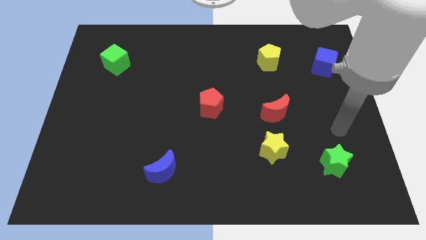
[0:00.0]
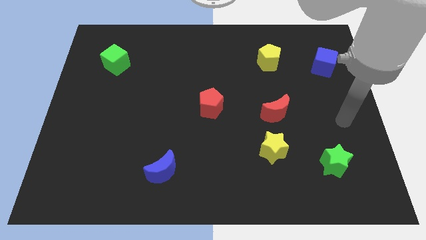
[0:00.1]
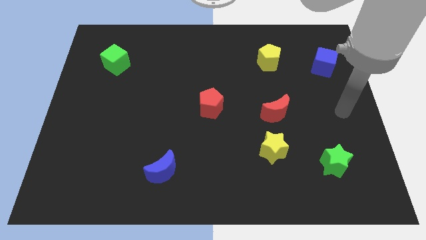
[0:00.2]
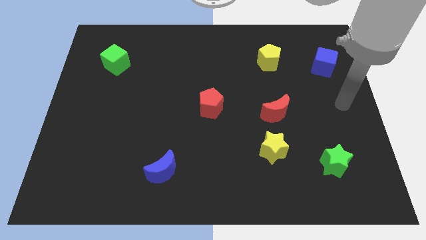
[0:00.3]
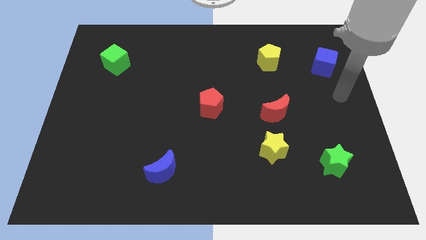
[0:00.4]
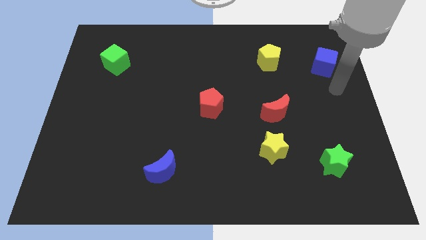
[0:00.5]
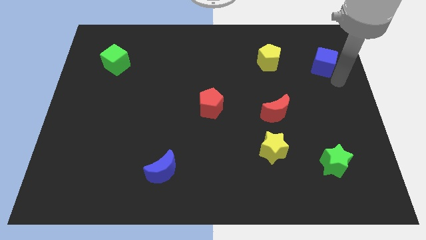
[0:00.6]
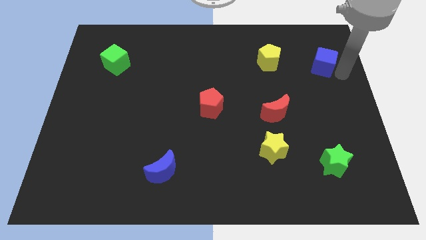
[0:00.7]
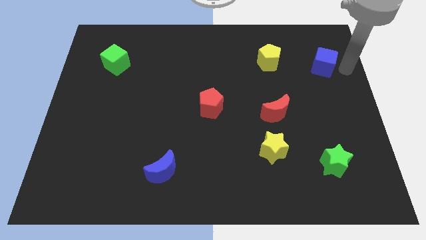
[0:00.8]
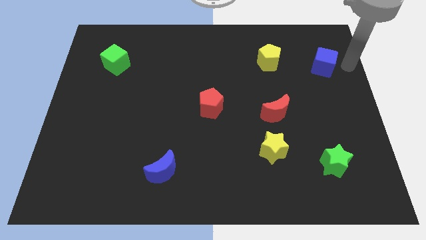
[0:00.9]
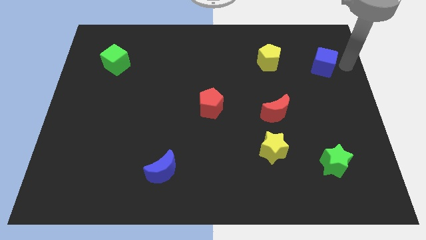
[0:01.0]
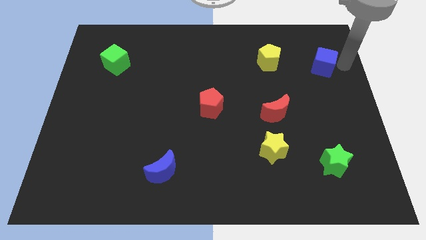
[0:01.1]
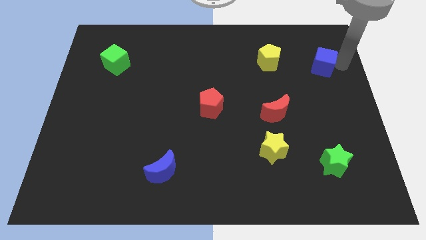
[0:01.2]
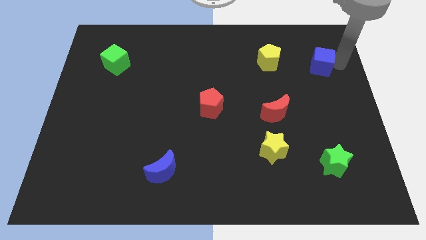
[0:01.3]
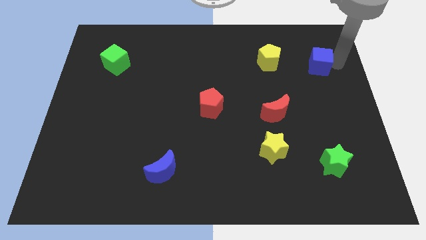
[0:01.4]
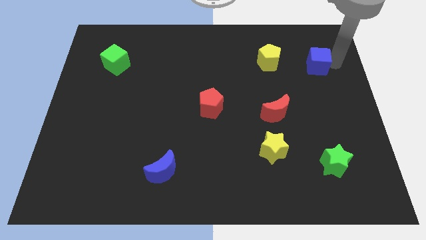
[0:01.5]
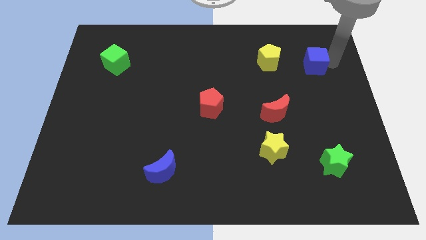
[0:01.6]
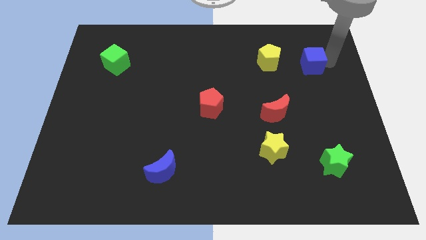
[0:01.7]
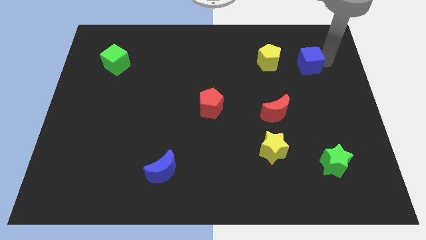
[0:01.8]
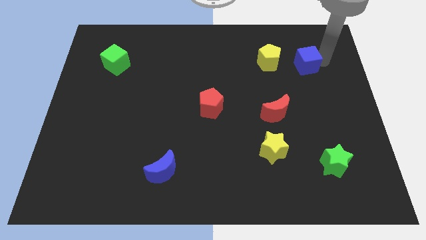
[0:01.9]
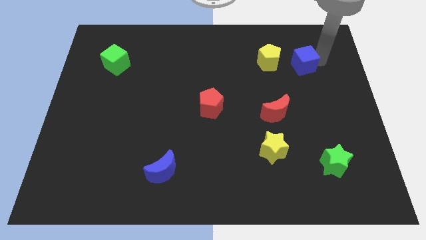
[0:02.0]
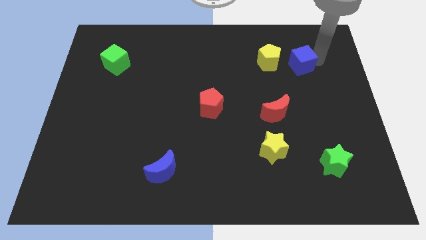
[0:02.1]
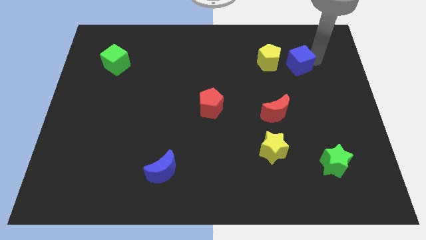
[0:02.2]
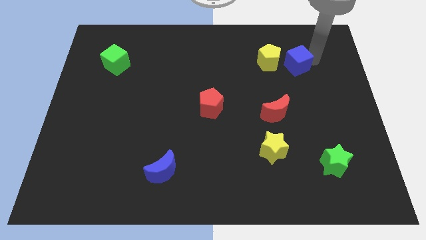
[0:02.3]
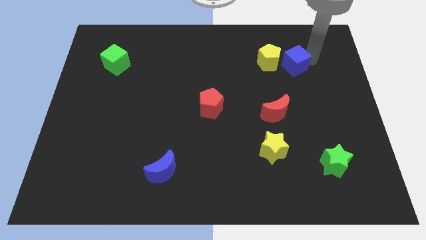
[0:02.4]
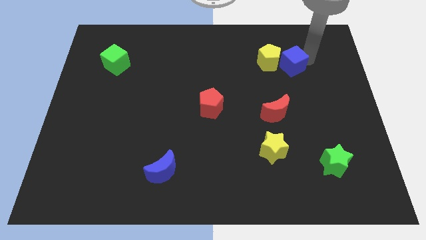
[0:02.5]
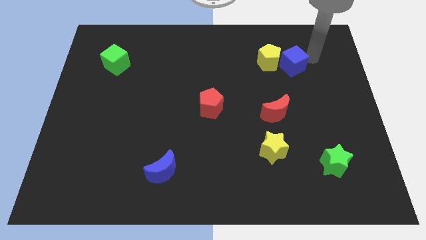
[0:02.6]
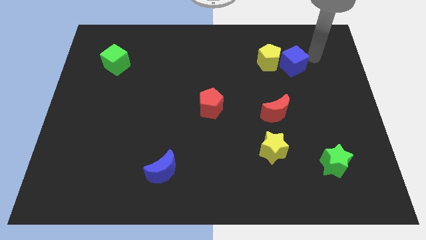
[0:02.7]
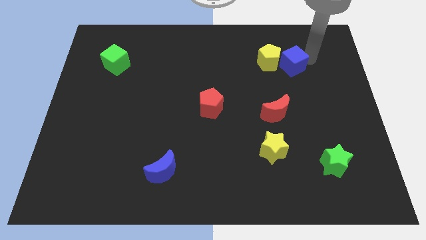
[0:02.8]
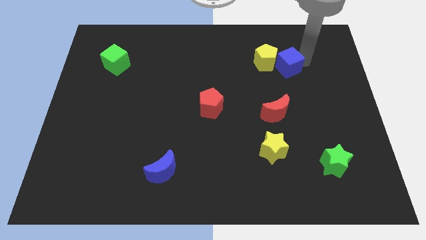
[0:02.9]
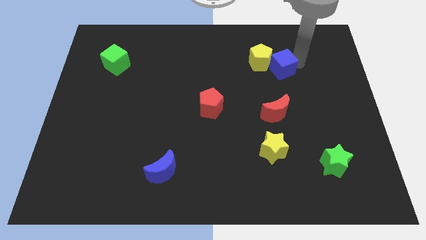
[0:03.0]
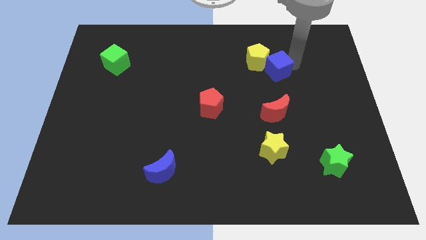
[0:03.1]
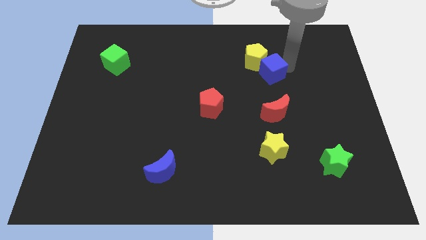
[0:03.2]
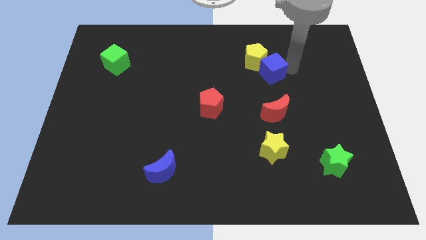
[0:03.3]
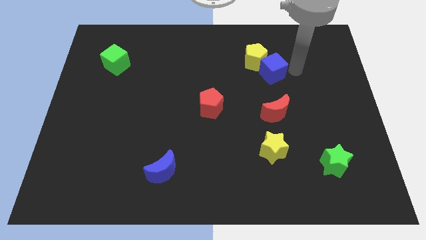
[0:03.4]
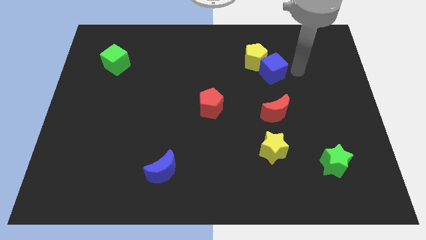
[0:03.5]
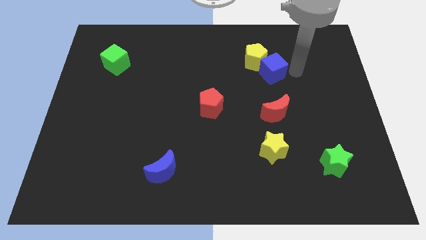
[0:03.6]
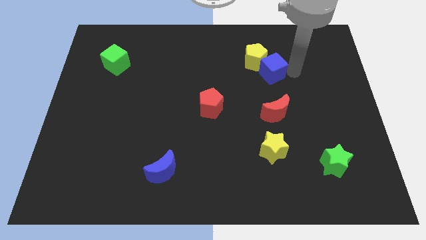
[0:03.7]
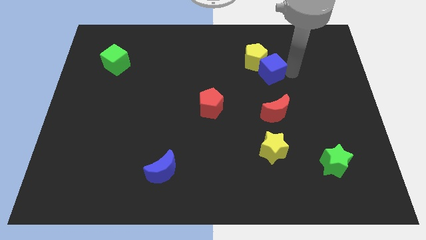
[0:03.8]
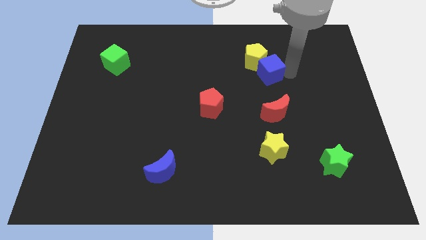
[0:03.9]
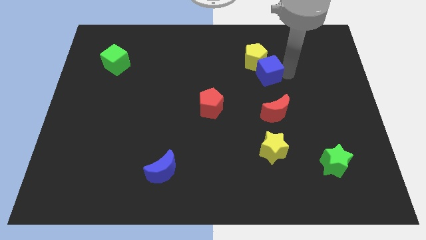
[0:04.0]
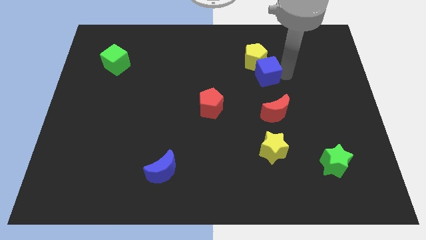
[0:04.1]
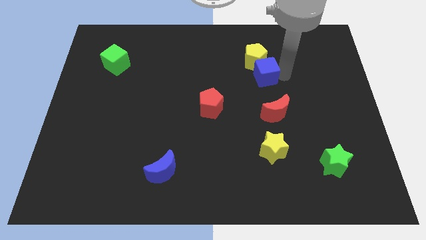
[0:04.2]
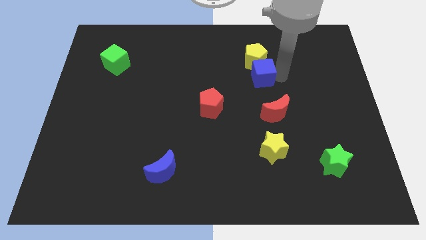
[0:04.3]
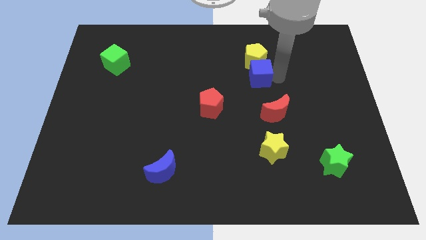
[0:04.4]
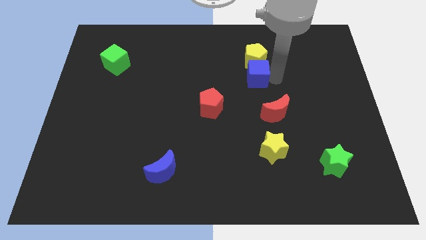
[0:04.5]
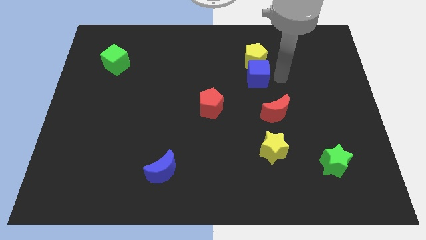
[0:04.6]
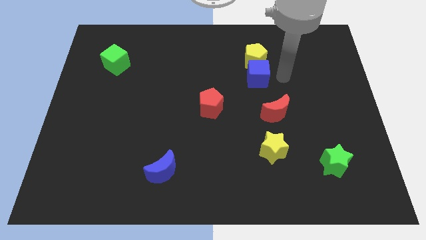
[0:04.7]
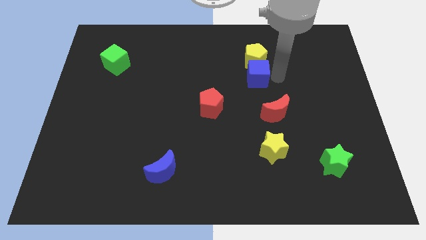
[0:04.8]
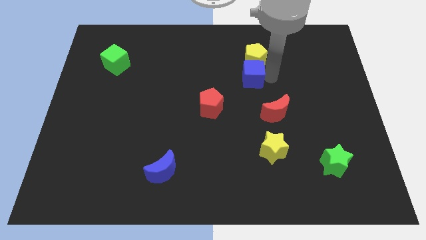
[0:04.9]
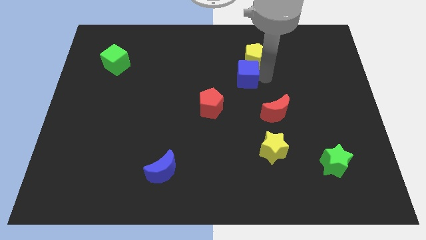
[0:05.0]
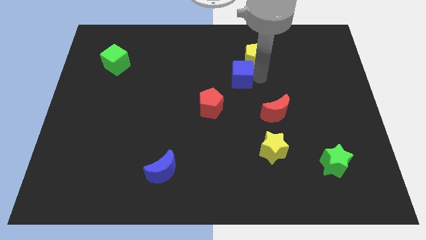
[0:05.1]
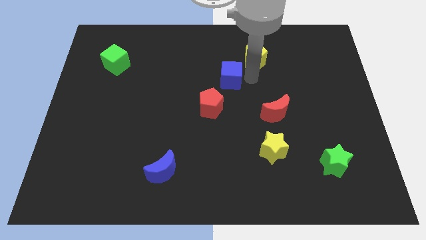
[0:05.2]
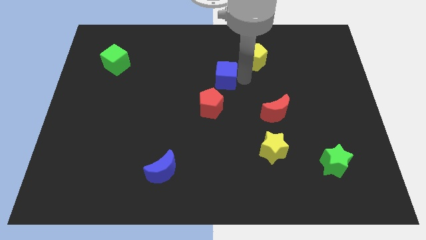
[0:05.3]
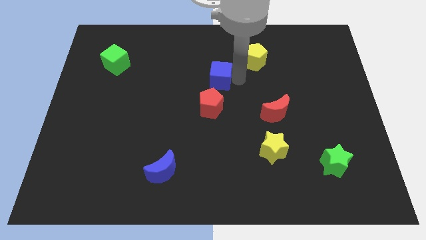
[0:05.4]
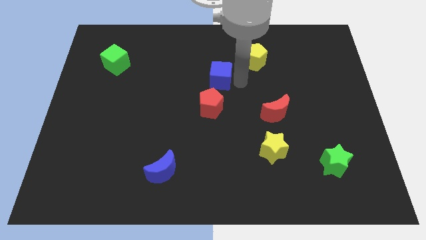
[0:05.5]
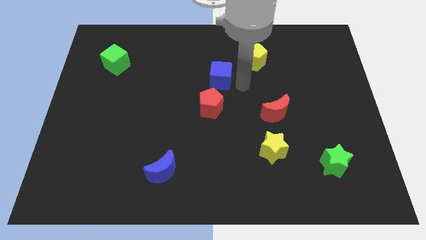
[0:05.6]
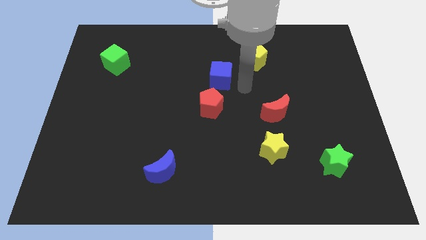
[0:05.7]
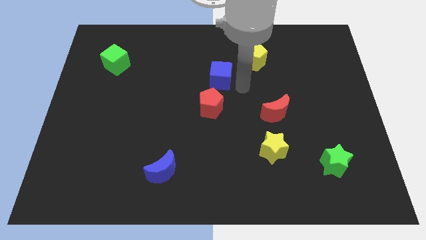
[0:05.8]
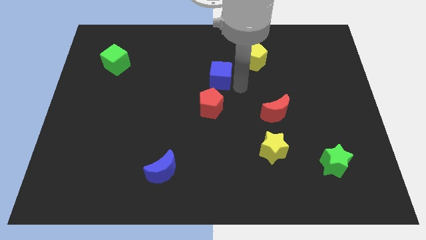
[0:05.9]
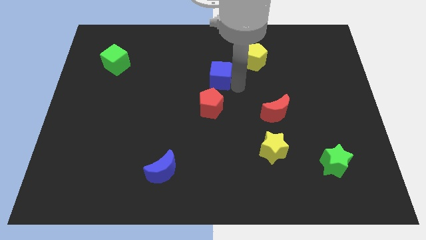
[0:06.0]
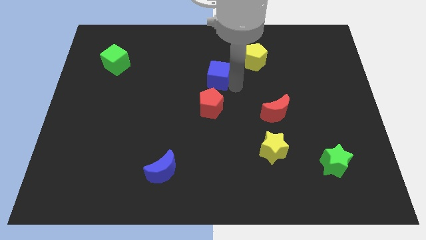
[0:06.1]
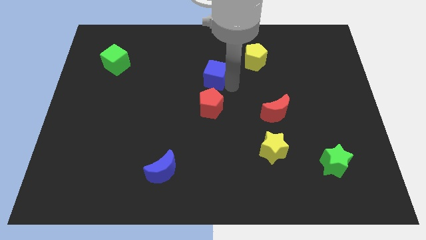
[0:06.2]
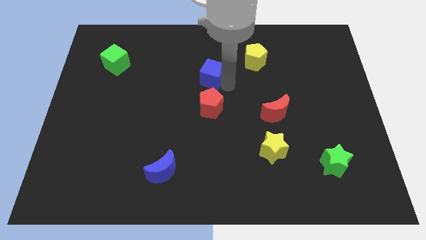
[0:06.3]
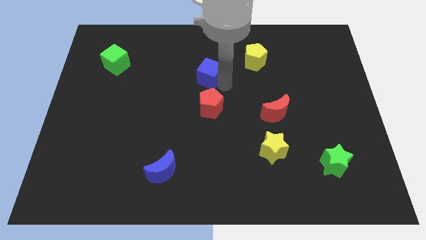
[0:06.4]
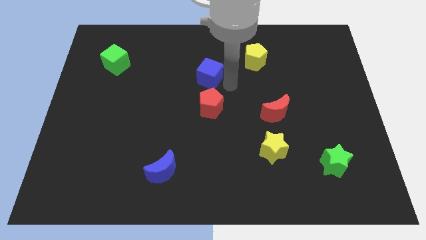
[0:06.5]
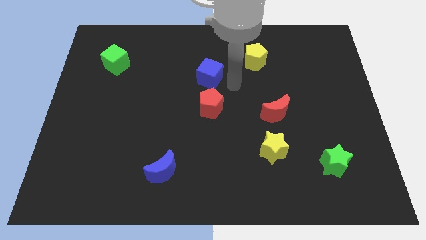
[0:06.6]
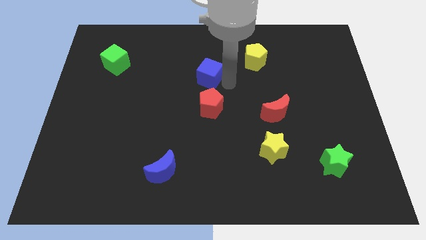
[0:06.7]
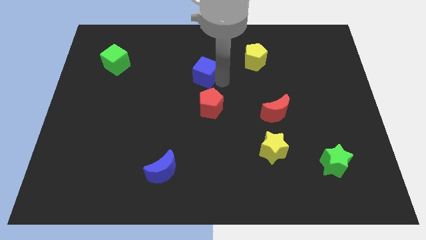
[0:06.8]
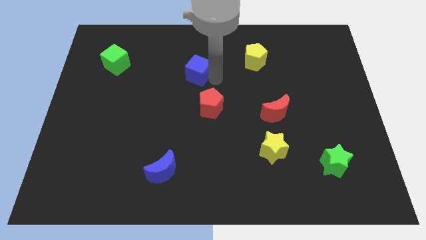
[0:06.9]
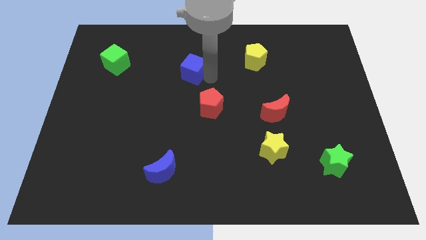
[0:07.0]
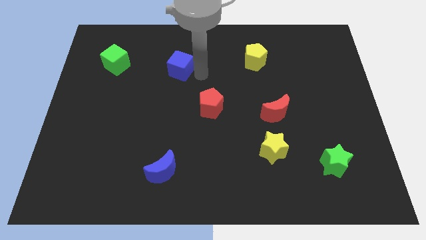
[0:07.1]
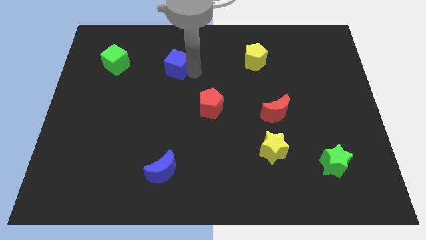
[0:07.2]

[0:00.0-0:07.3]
put the blue cube to the right side of the green cube

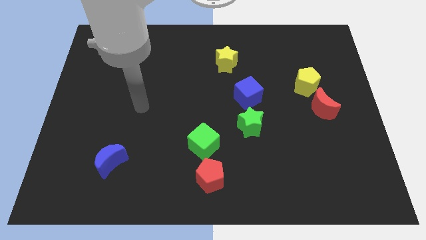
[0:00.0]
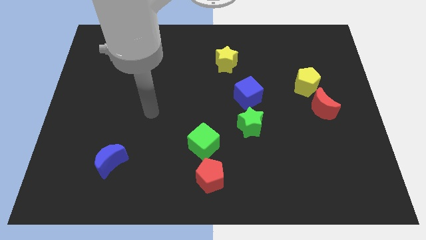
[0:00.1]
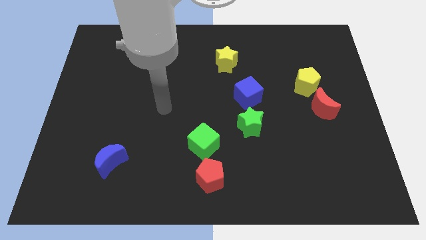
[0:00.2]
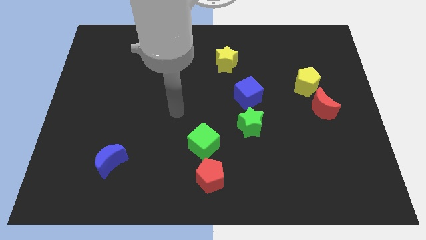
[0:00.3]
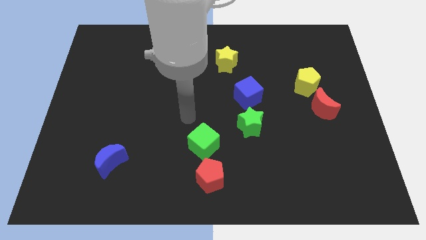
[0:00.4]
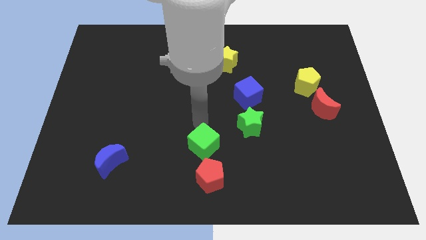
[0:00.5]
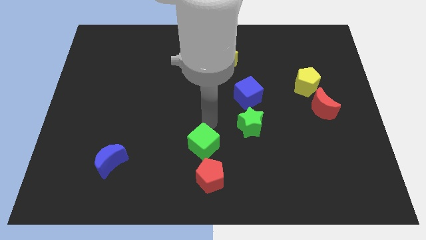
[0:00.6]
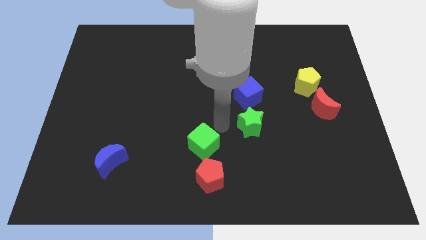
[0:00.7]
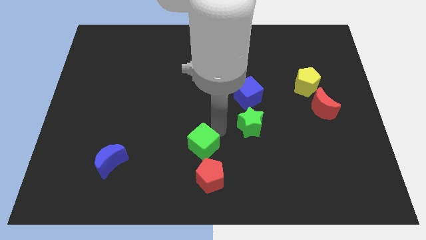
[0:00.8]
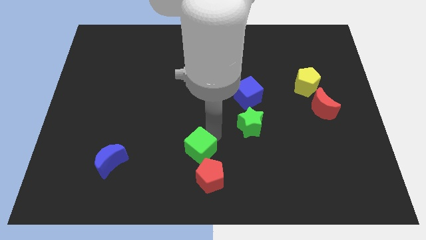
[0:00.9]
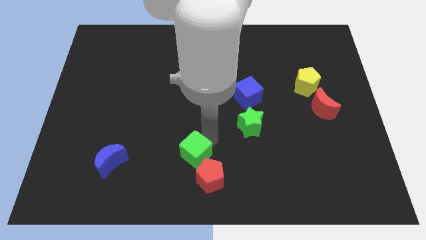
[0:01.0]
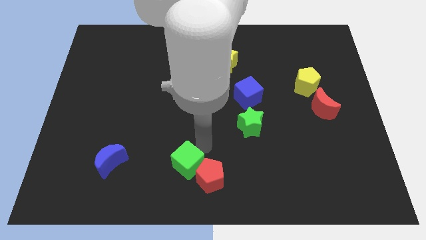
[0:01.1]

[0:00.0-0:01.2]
push the green cube to the left of the red pentagon
